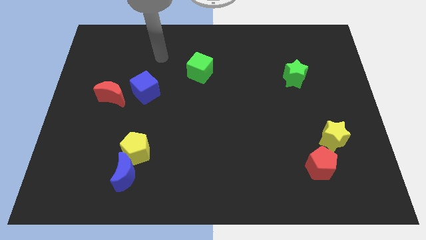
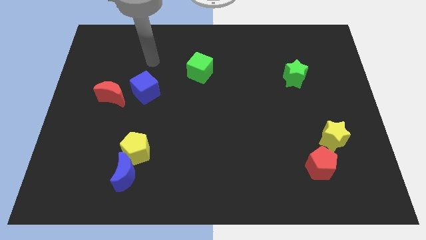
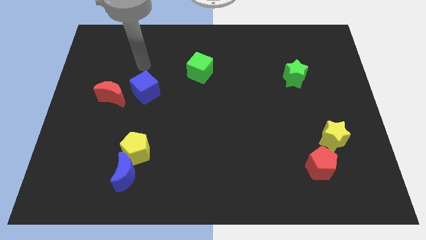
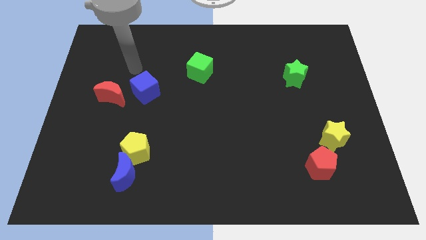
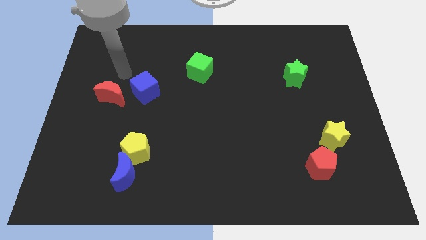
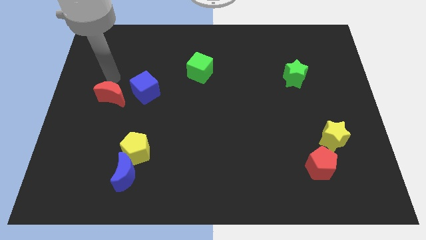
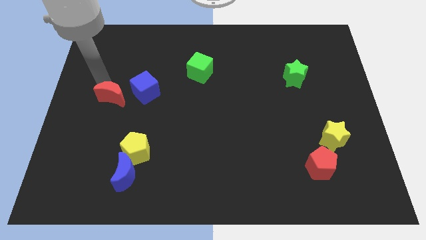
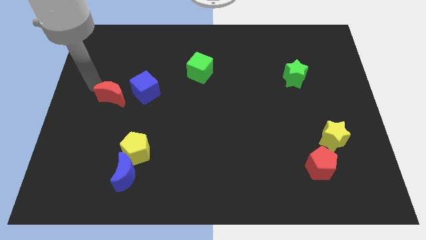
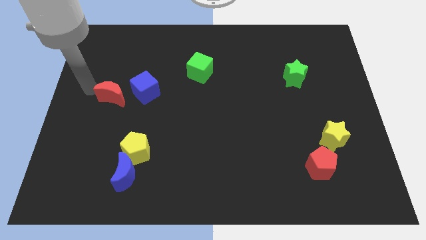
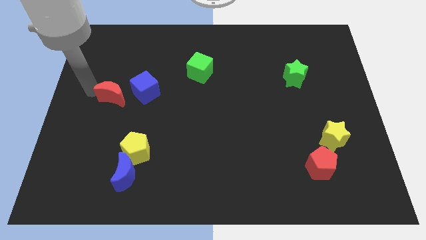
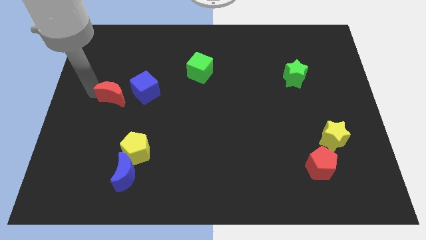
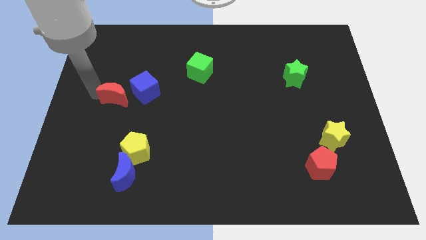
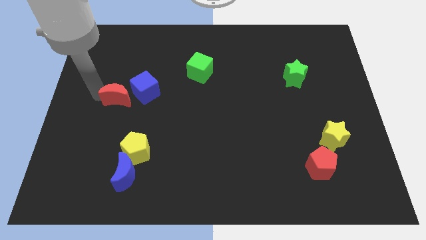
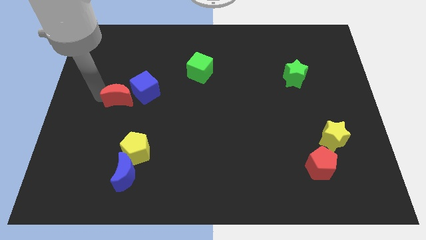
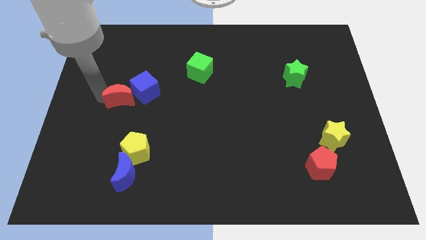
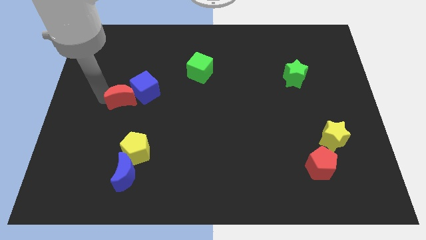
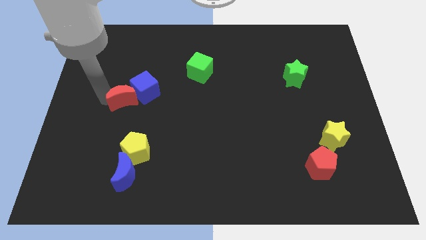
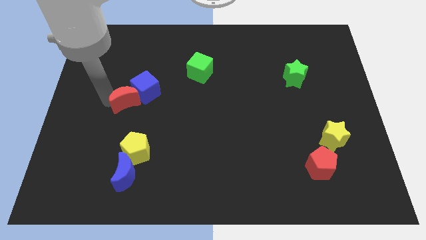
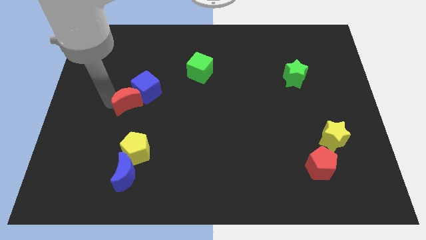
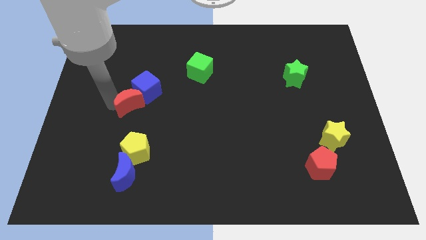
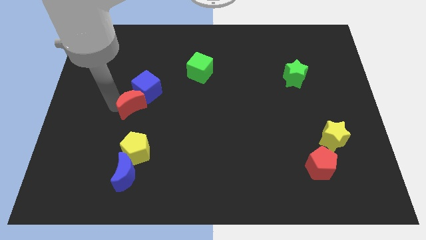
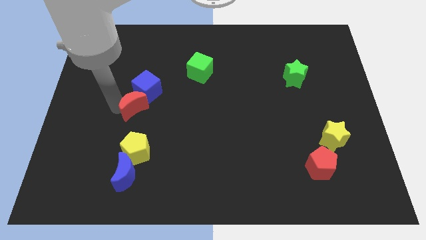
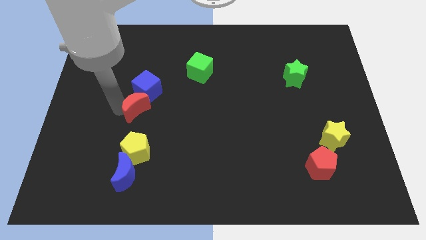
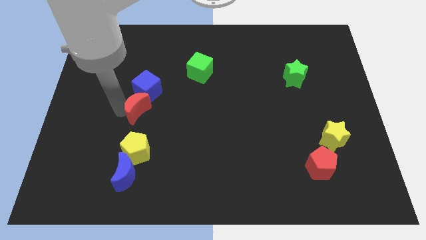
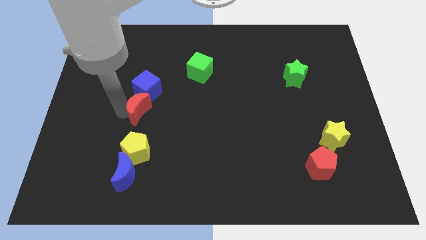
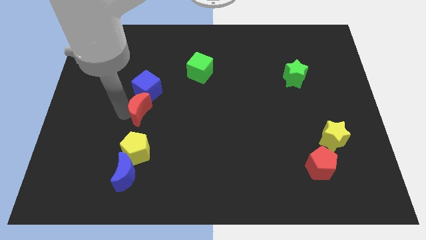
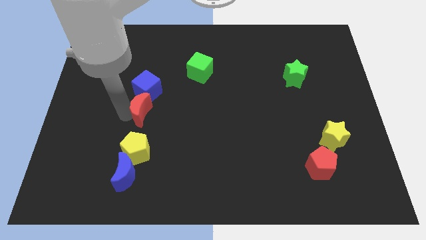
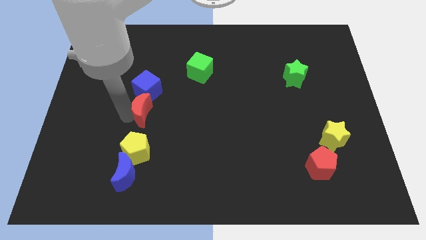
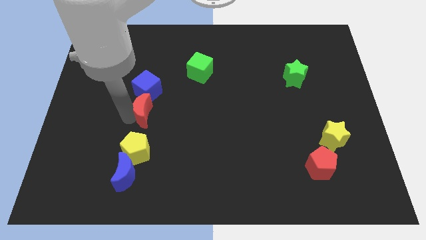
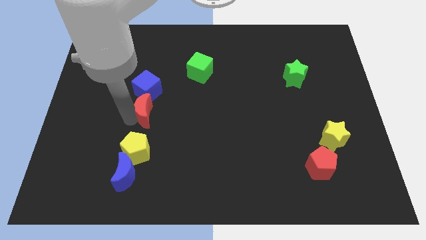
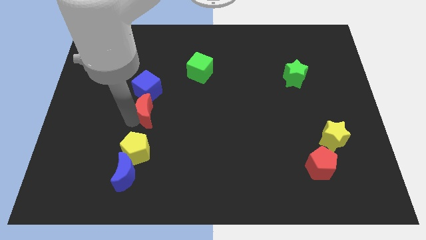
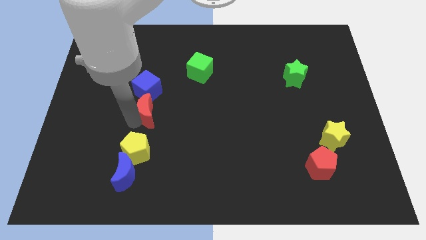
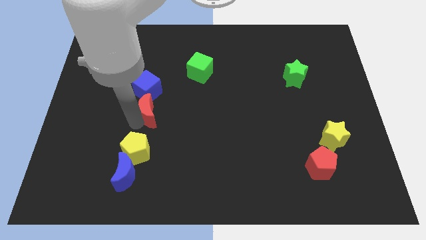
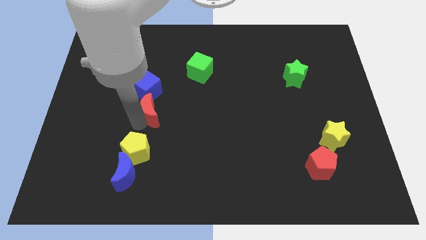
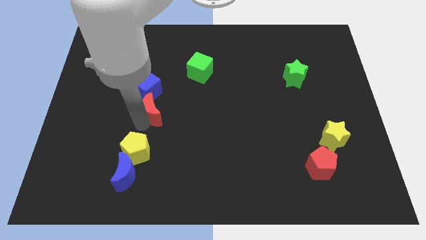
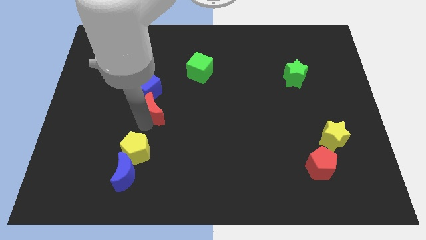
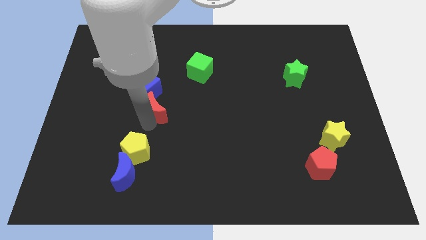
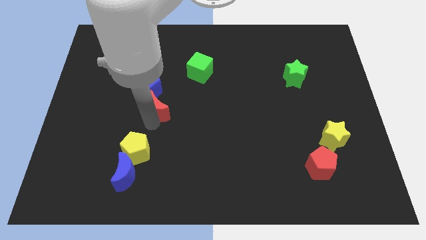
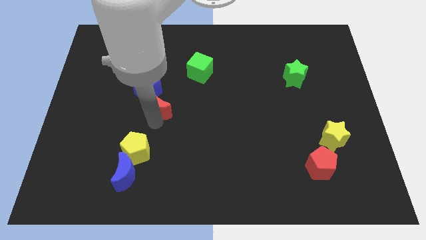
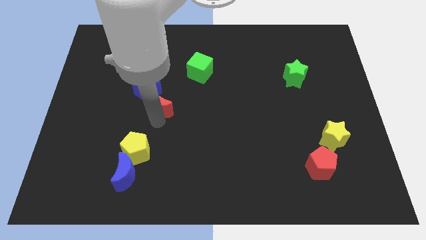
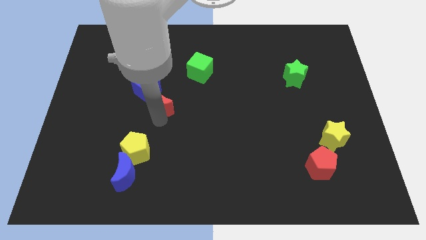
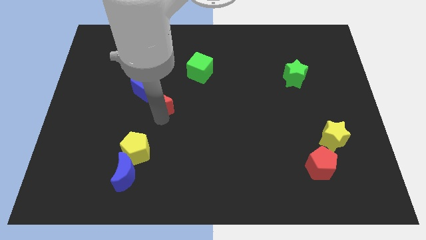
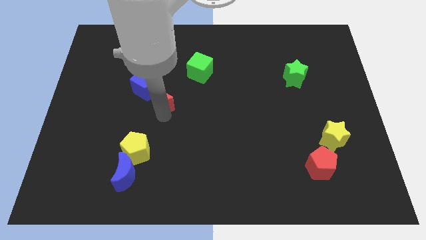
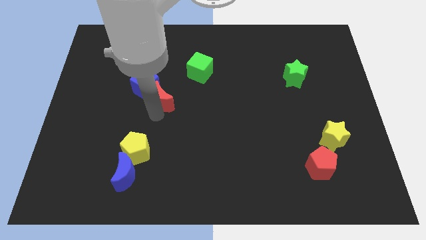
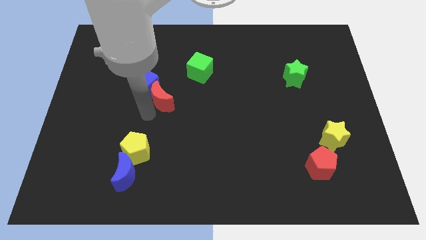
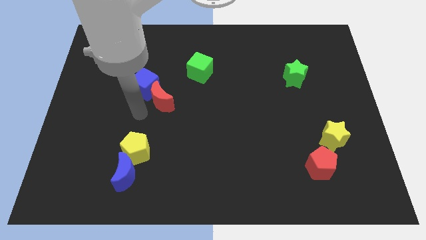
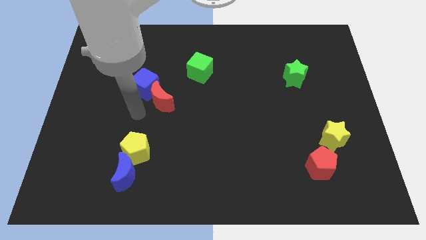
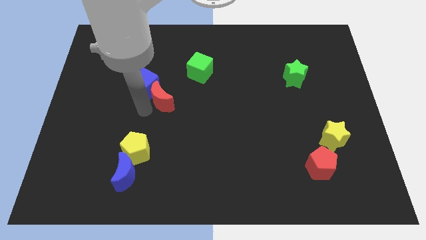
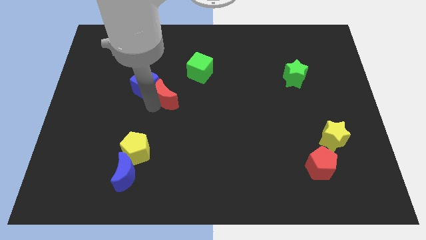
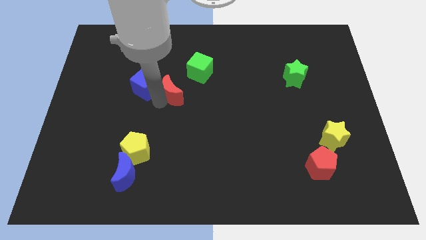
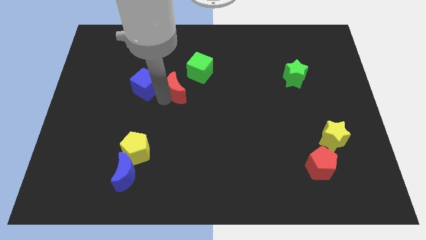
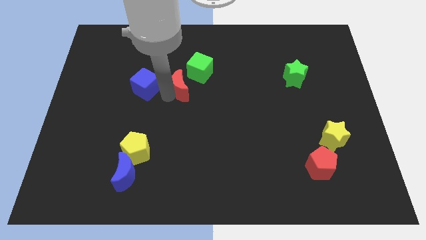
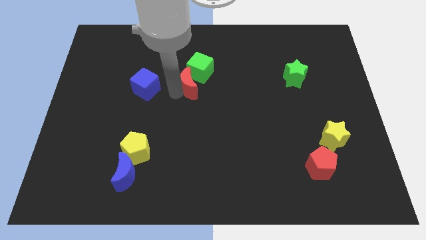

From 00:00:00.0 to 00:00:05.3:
slide the red moon towards the green cube

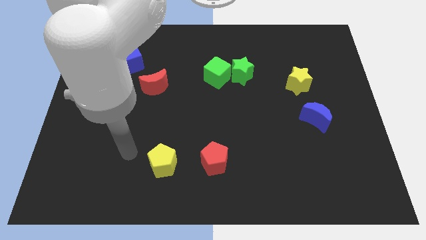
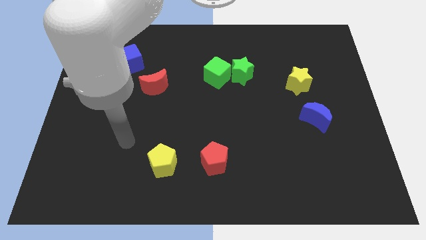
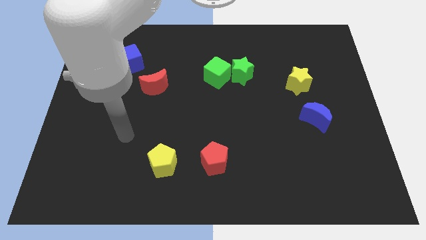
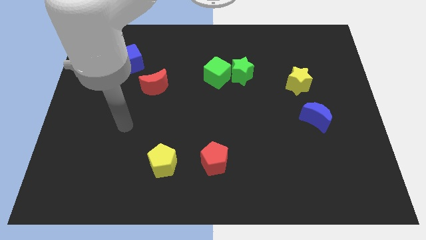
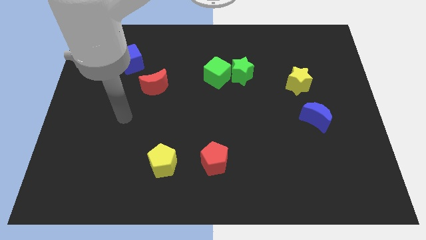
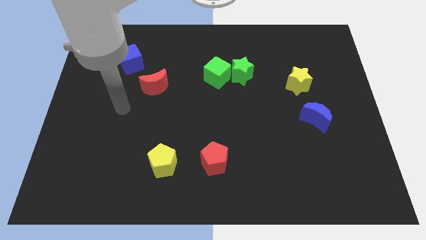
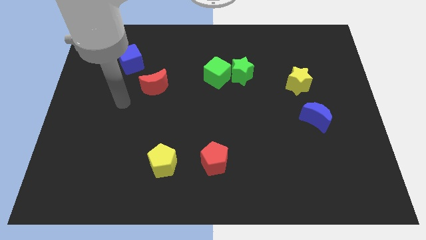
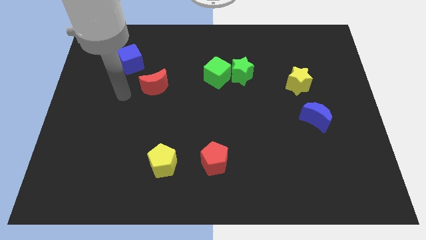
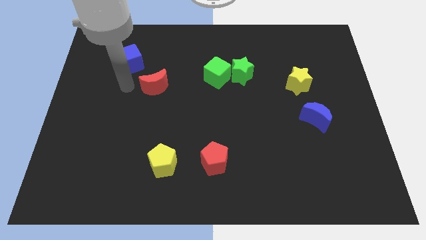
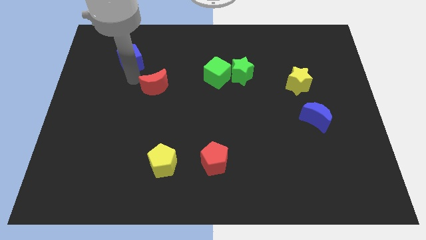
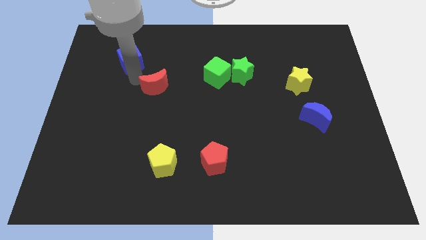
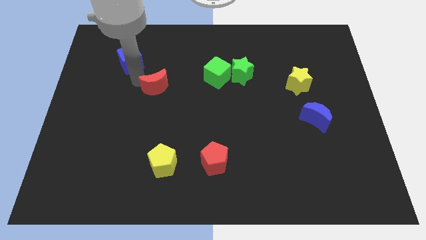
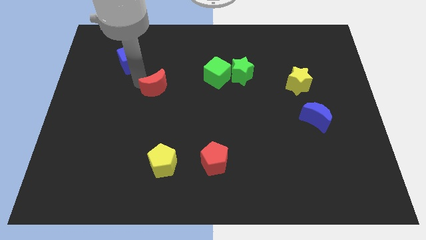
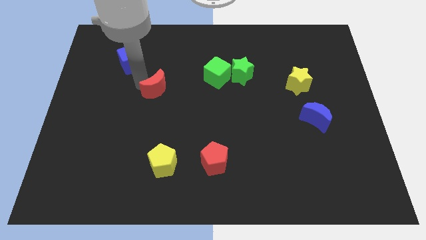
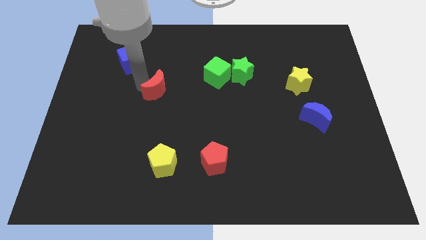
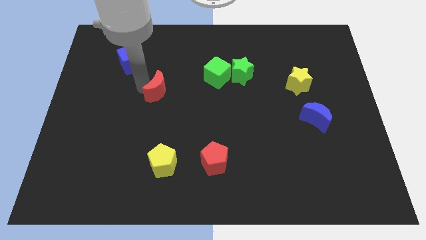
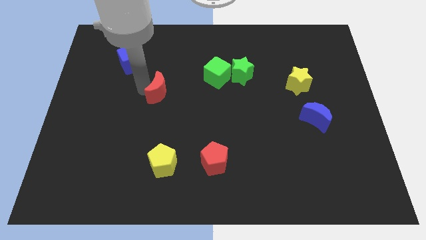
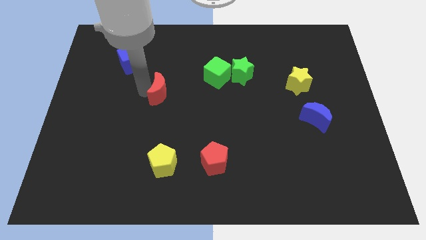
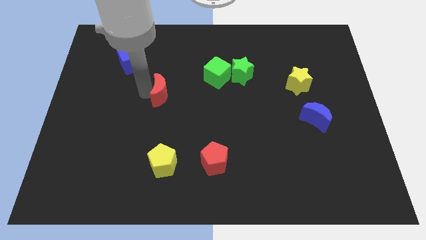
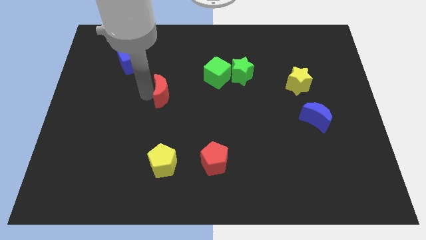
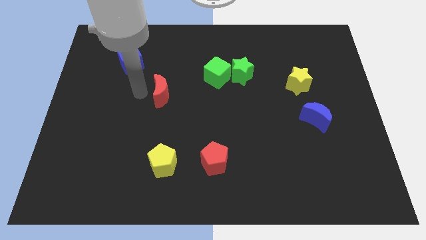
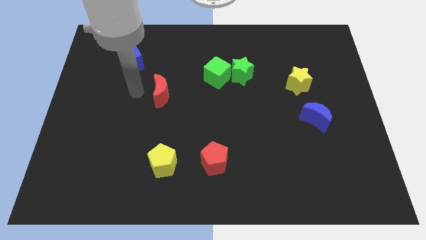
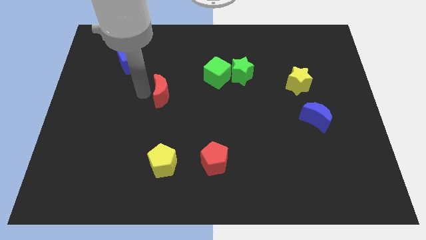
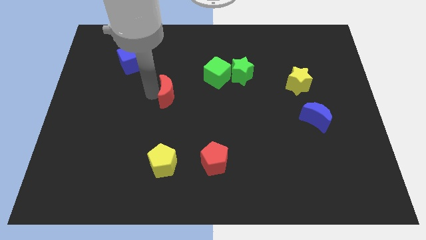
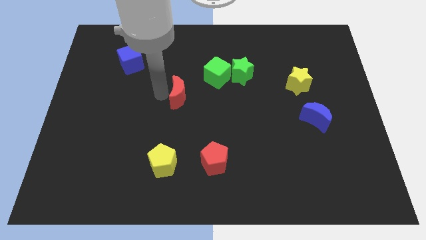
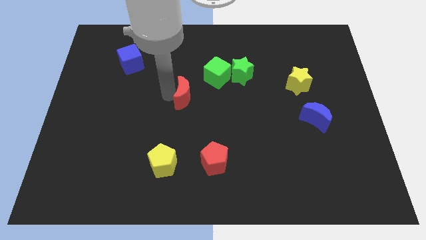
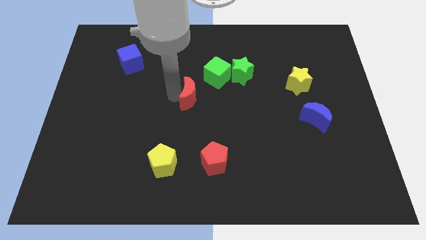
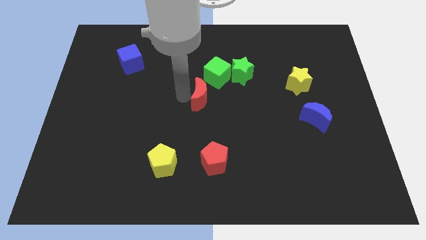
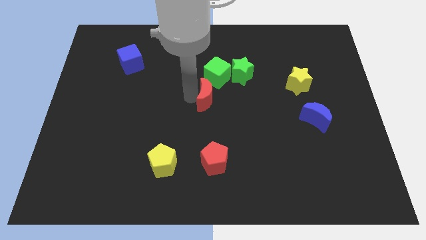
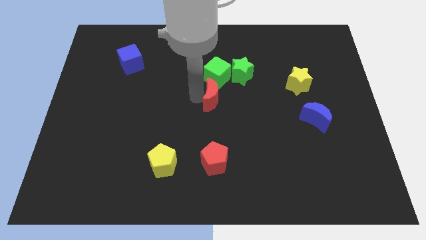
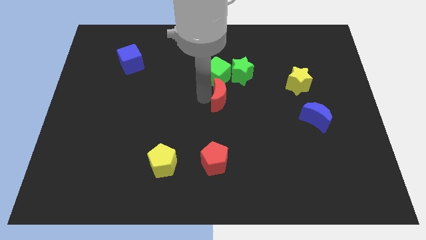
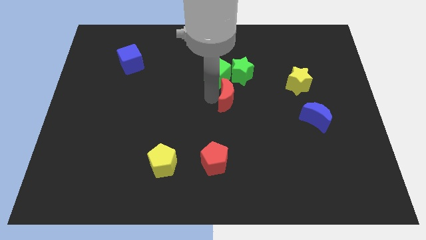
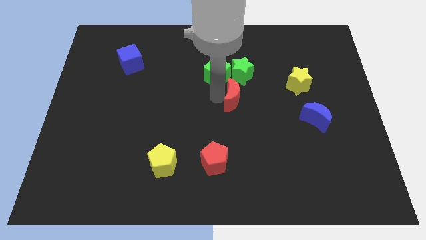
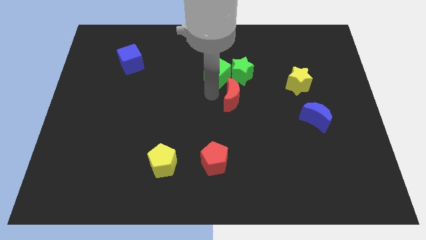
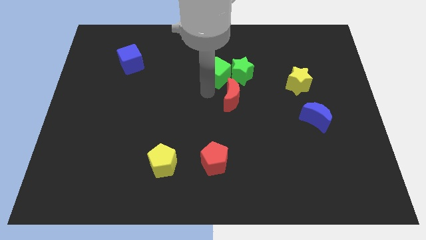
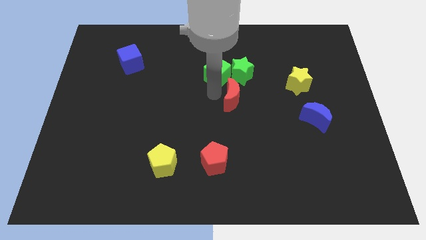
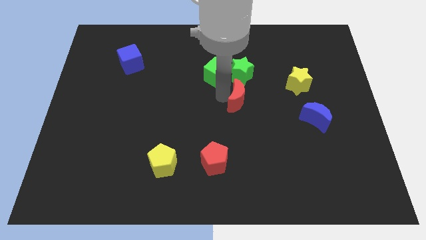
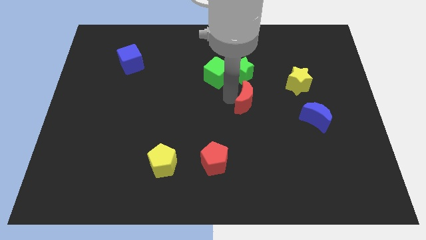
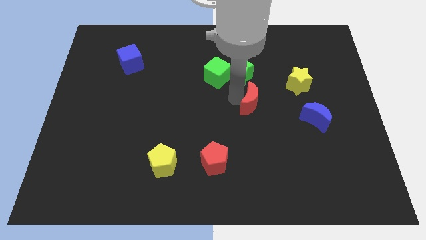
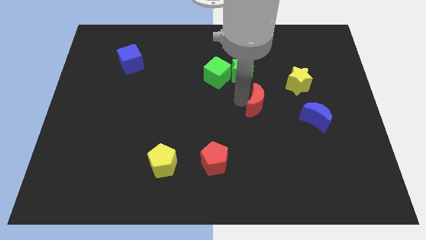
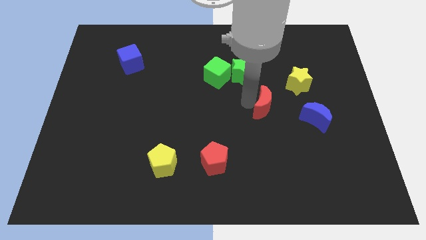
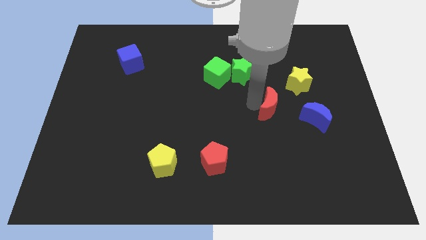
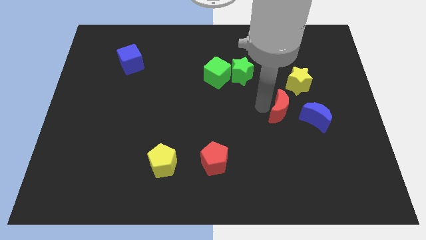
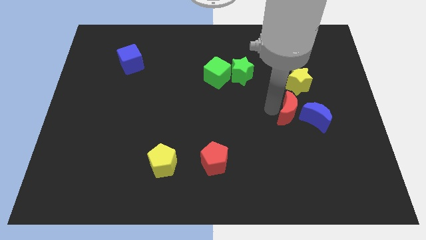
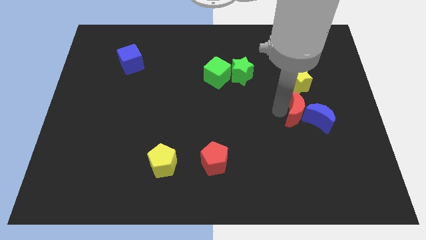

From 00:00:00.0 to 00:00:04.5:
slide the red moon next to the blue moon
